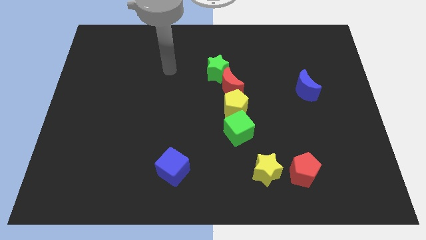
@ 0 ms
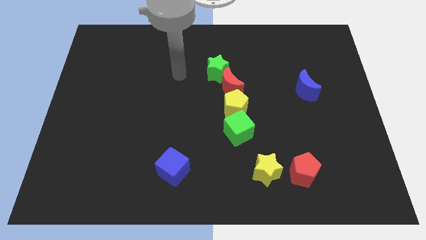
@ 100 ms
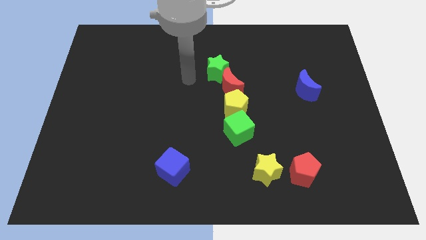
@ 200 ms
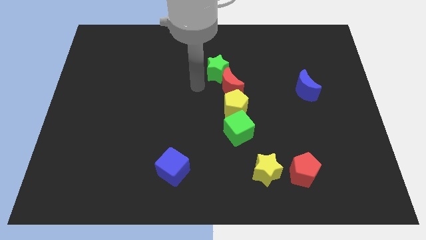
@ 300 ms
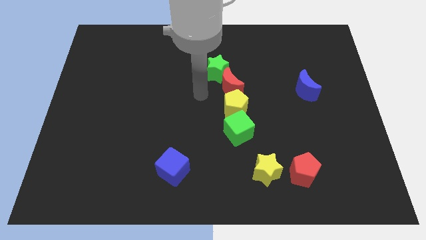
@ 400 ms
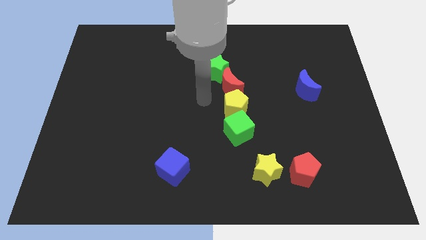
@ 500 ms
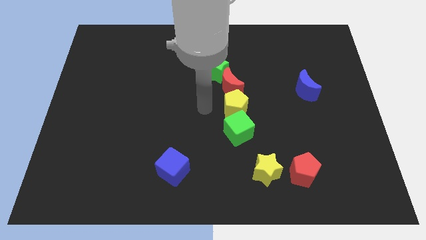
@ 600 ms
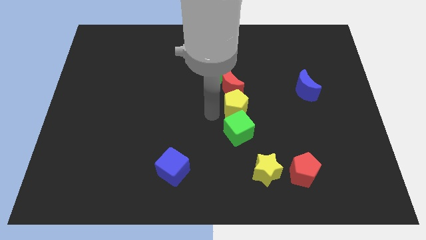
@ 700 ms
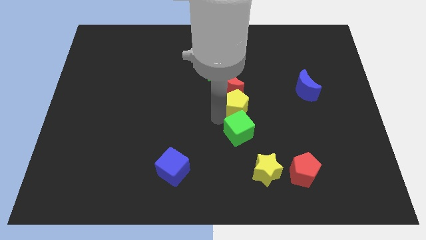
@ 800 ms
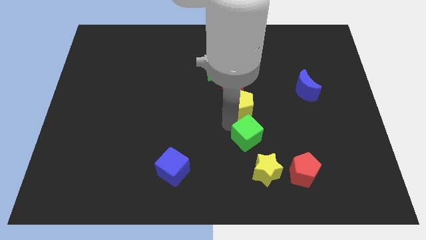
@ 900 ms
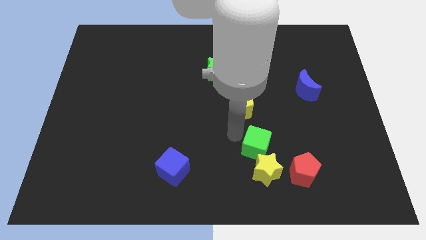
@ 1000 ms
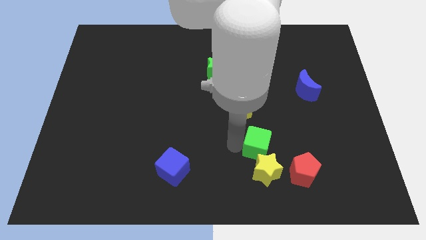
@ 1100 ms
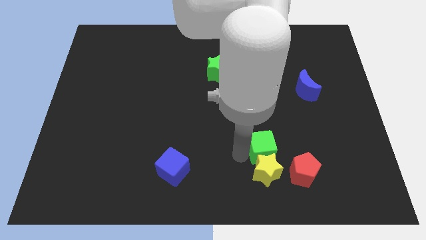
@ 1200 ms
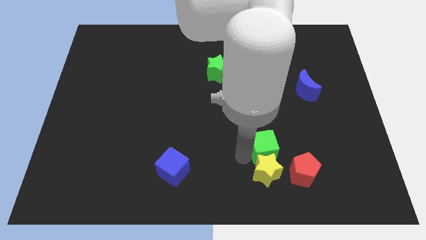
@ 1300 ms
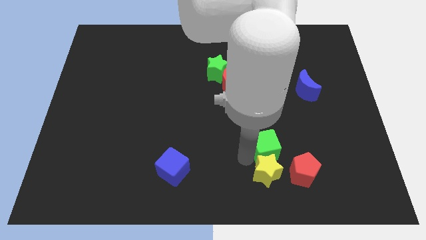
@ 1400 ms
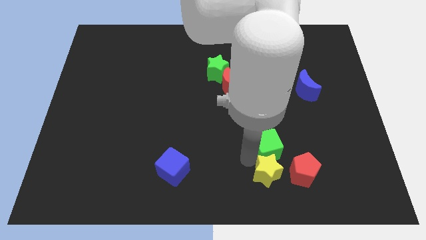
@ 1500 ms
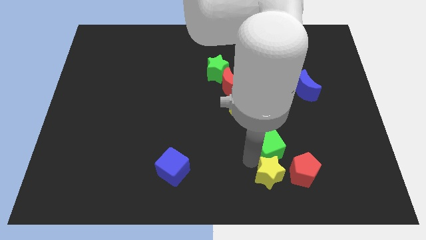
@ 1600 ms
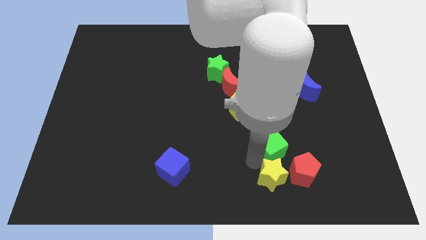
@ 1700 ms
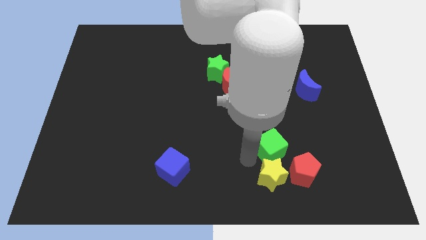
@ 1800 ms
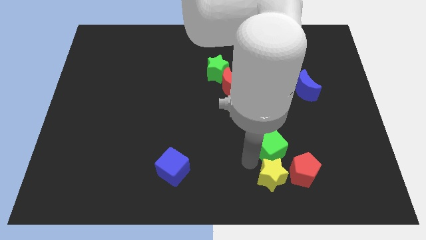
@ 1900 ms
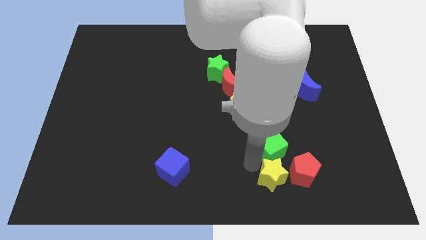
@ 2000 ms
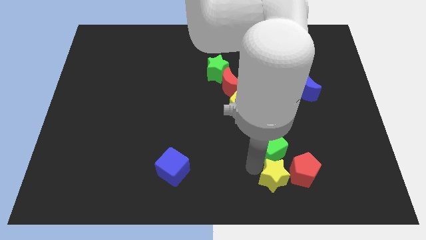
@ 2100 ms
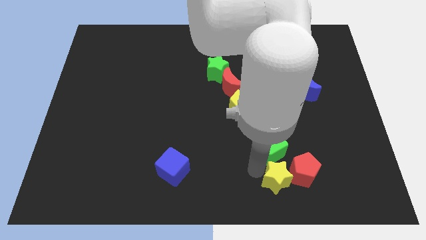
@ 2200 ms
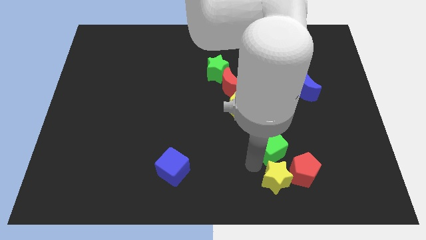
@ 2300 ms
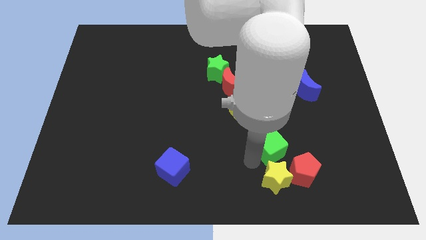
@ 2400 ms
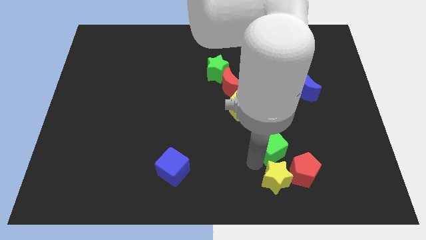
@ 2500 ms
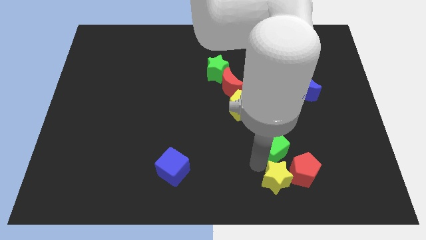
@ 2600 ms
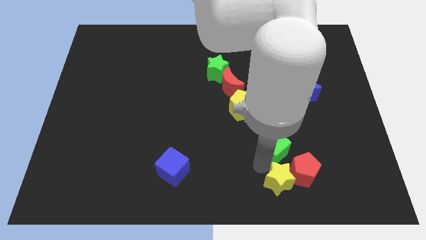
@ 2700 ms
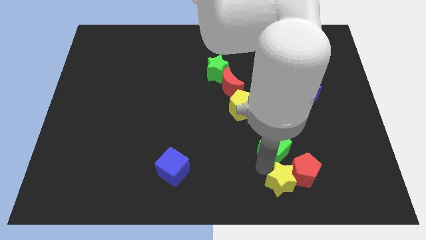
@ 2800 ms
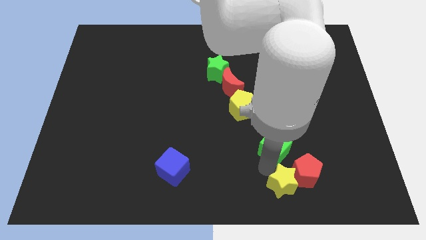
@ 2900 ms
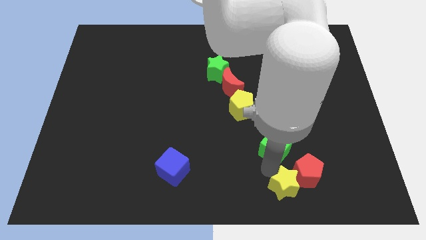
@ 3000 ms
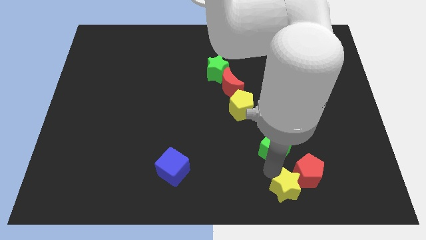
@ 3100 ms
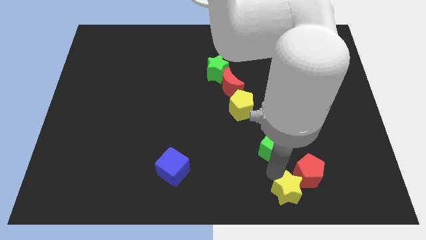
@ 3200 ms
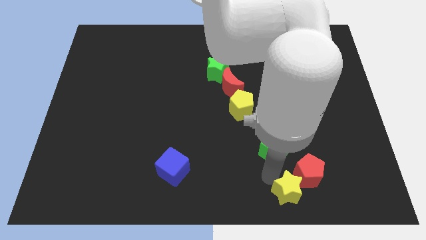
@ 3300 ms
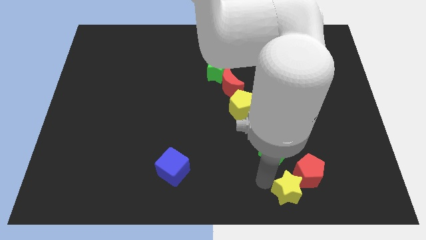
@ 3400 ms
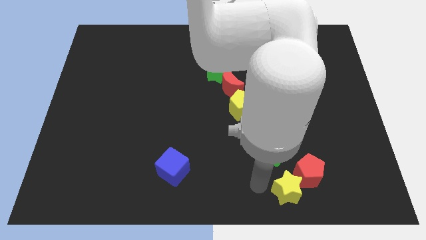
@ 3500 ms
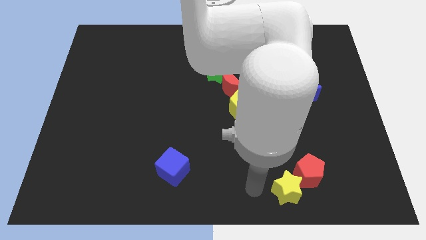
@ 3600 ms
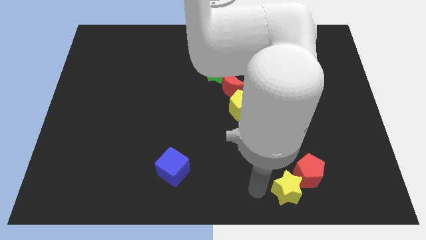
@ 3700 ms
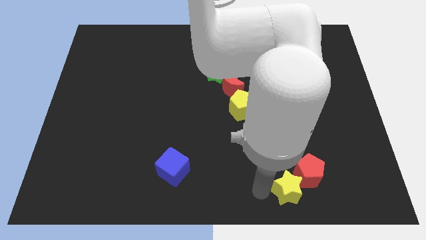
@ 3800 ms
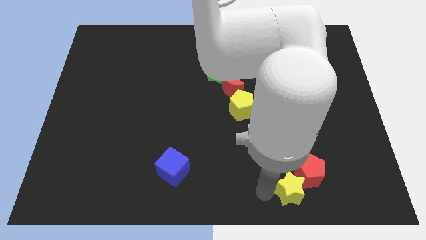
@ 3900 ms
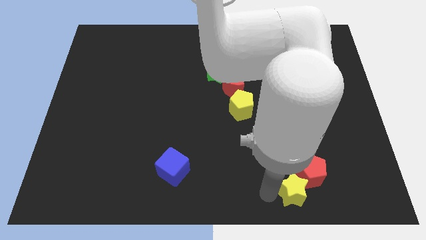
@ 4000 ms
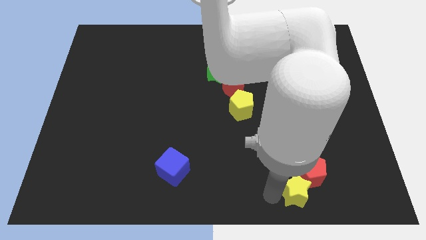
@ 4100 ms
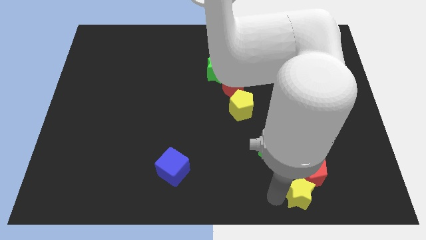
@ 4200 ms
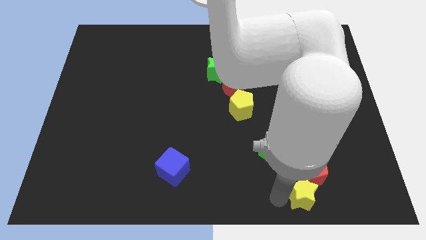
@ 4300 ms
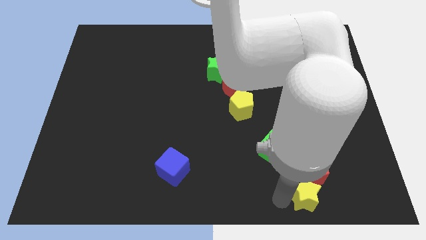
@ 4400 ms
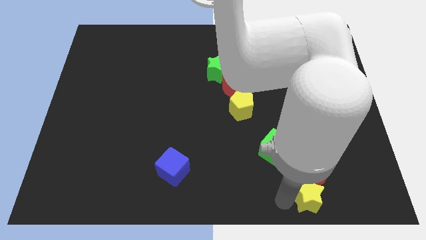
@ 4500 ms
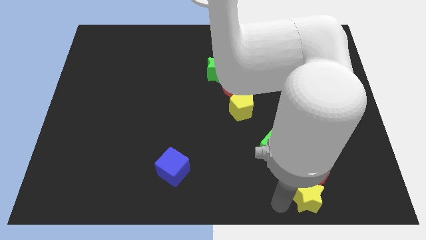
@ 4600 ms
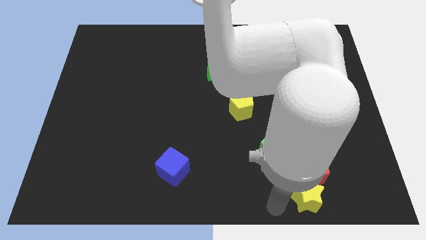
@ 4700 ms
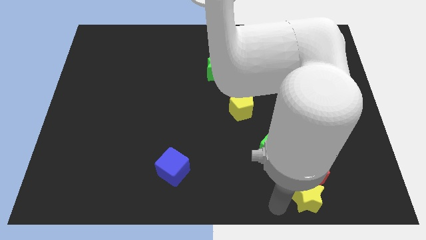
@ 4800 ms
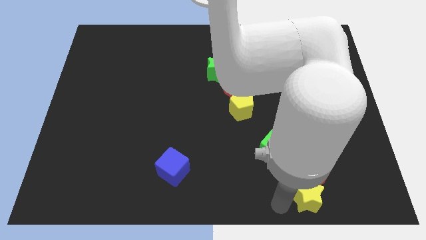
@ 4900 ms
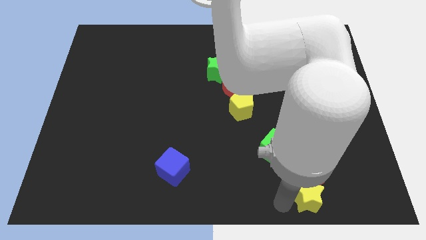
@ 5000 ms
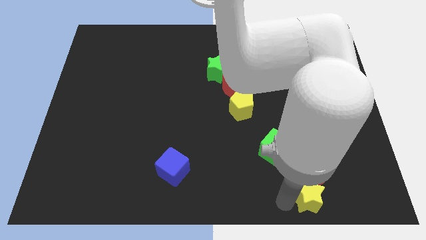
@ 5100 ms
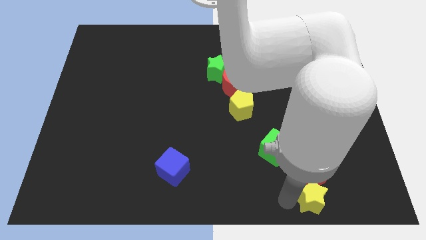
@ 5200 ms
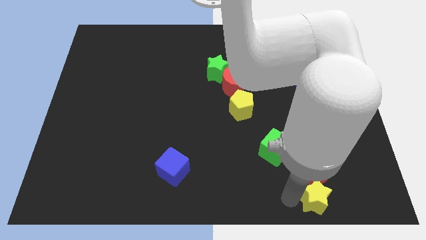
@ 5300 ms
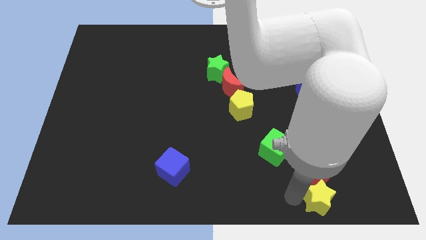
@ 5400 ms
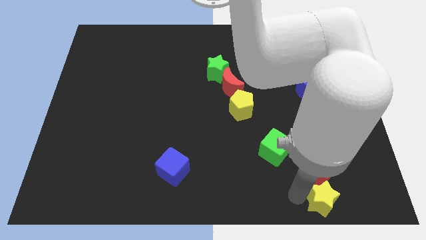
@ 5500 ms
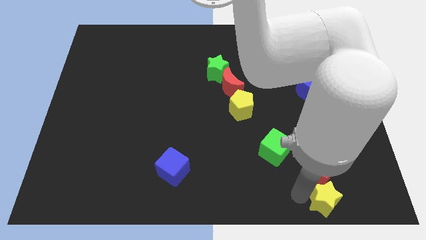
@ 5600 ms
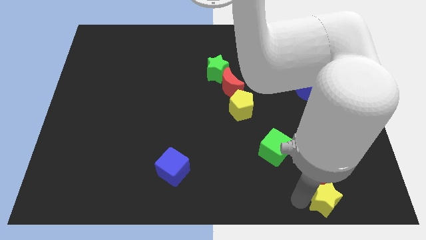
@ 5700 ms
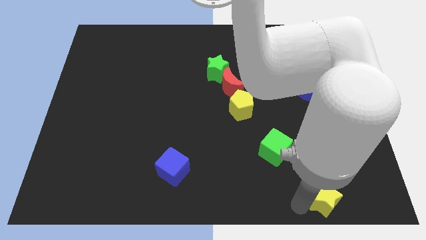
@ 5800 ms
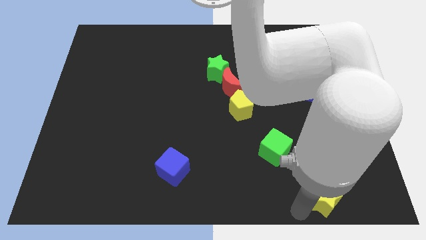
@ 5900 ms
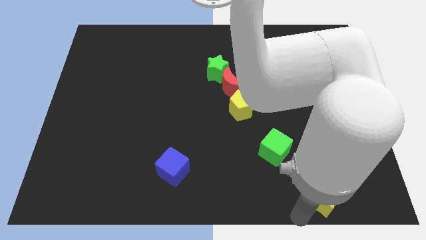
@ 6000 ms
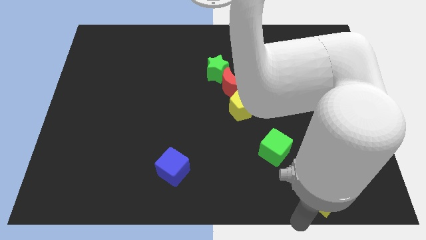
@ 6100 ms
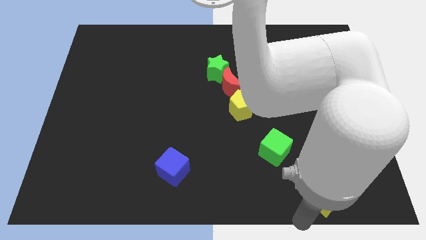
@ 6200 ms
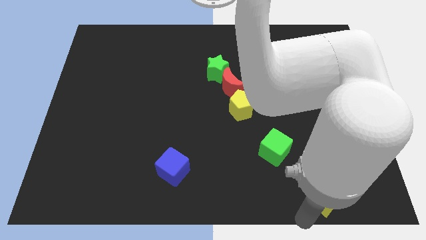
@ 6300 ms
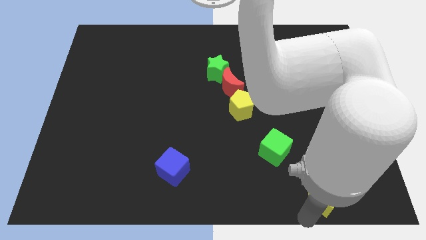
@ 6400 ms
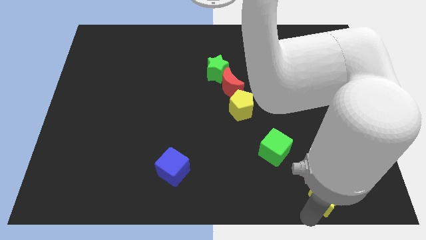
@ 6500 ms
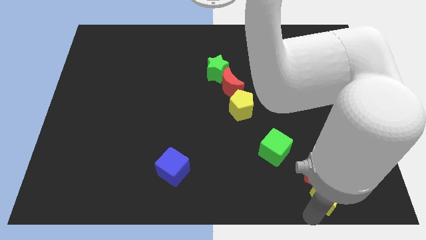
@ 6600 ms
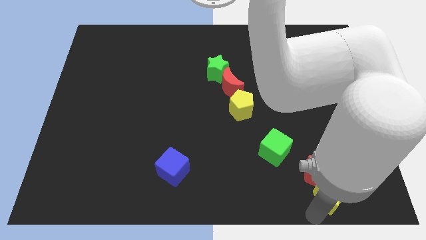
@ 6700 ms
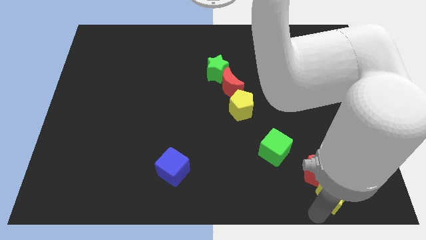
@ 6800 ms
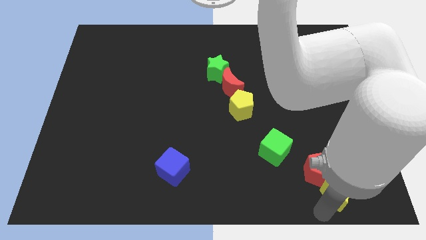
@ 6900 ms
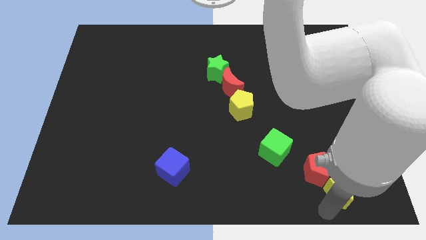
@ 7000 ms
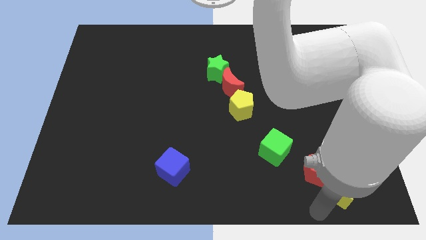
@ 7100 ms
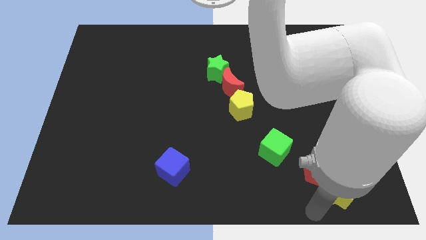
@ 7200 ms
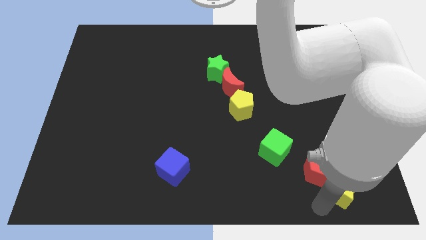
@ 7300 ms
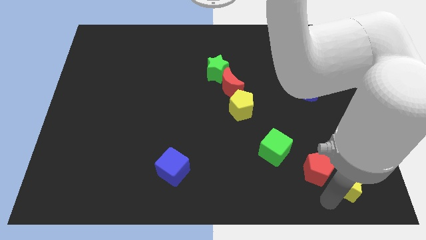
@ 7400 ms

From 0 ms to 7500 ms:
push the yellow star to the right side of the red pentagon

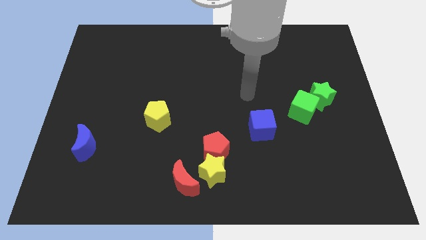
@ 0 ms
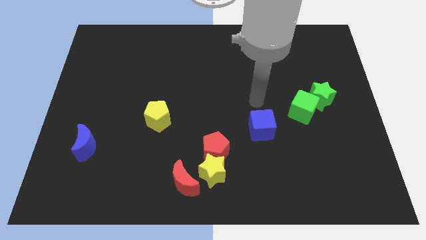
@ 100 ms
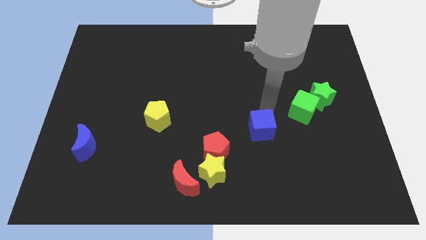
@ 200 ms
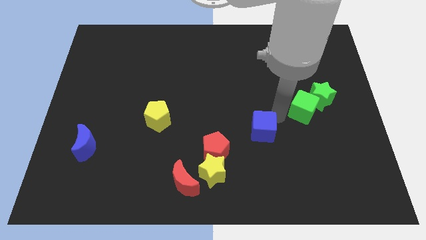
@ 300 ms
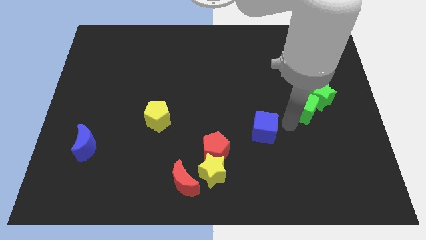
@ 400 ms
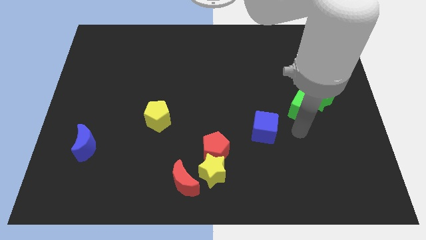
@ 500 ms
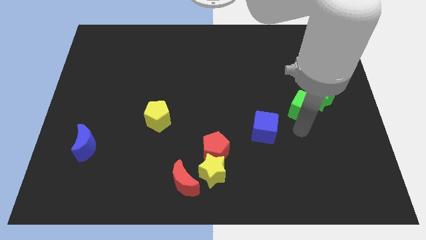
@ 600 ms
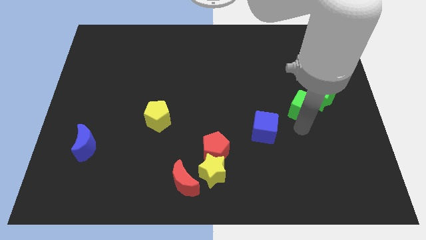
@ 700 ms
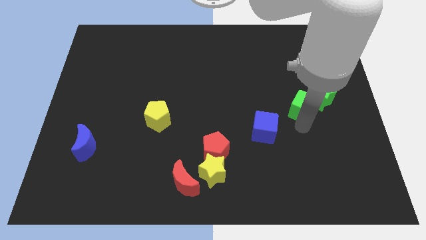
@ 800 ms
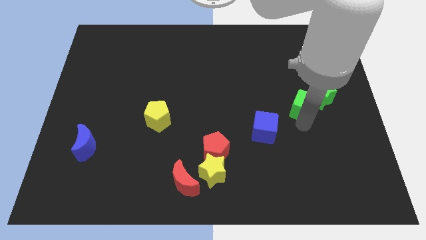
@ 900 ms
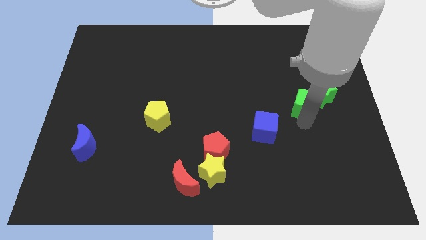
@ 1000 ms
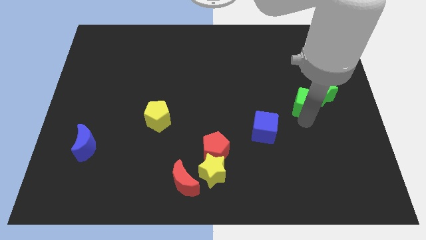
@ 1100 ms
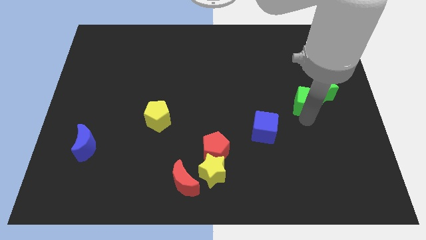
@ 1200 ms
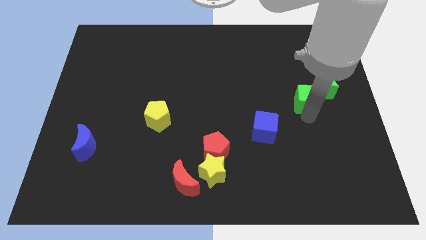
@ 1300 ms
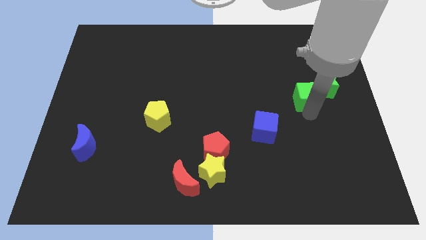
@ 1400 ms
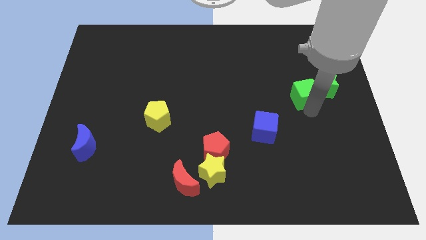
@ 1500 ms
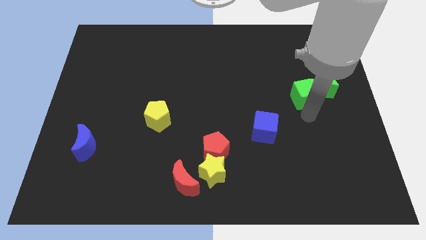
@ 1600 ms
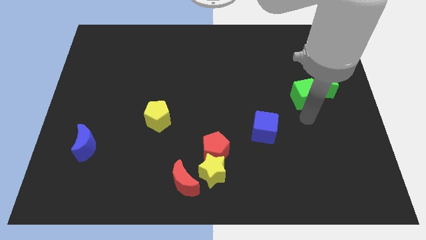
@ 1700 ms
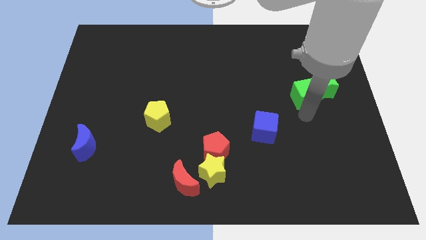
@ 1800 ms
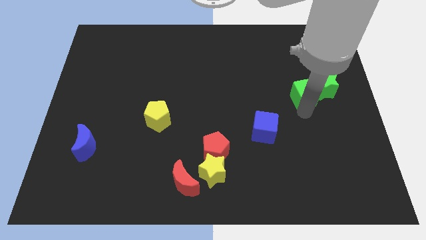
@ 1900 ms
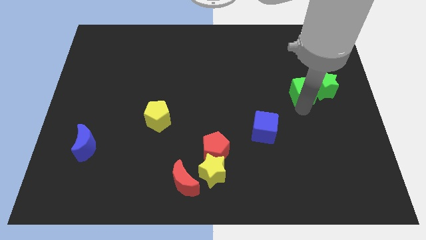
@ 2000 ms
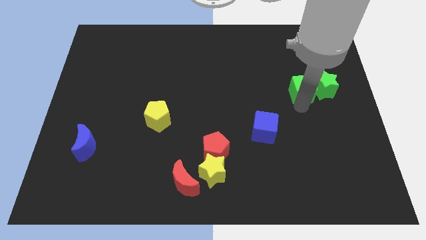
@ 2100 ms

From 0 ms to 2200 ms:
put the green cube to the top left side of the green star
